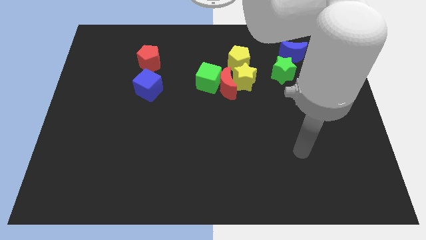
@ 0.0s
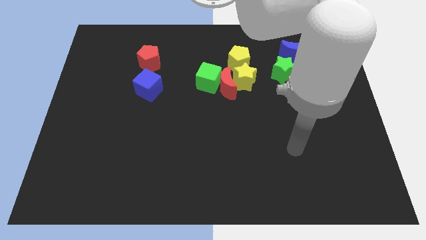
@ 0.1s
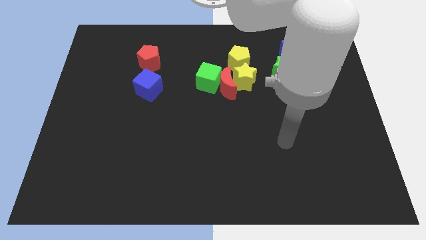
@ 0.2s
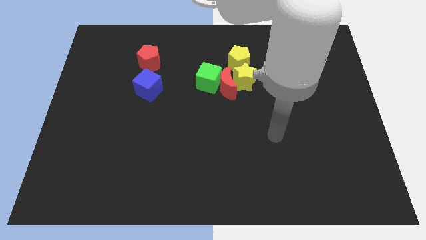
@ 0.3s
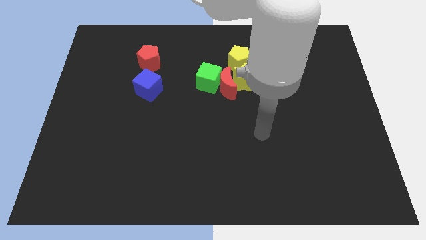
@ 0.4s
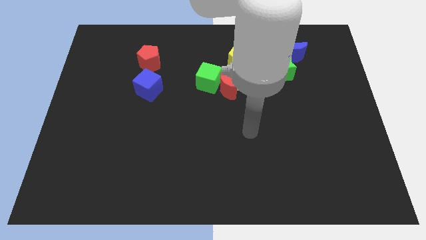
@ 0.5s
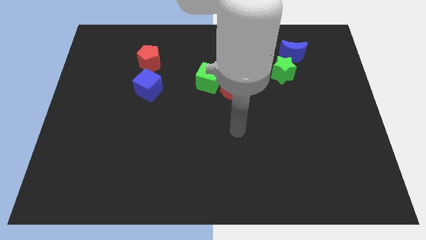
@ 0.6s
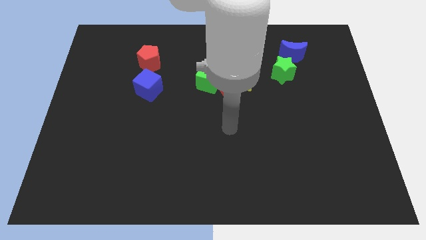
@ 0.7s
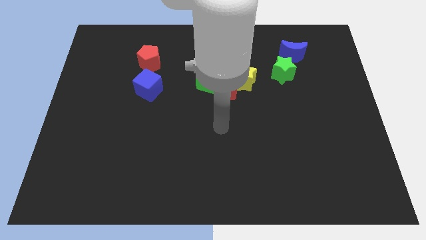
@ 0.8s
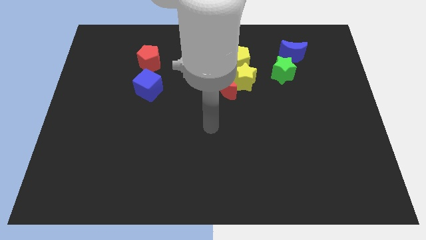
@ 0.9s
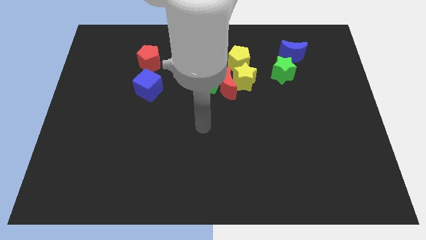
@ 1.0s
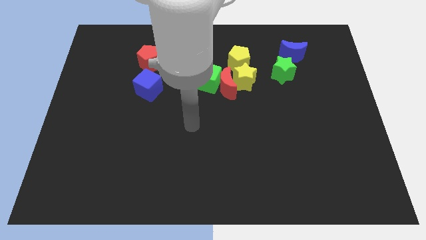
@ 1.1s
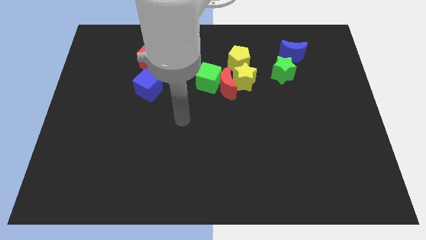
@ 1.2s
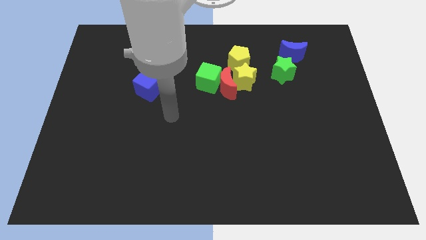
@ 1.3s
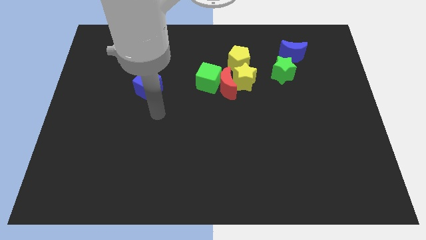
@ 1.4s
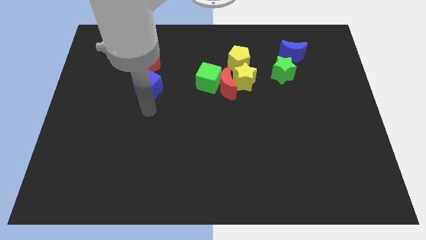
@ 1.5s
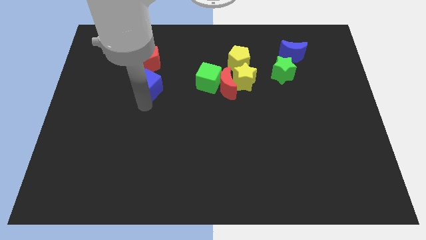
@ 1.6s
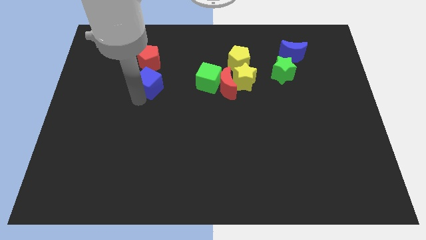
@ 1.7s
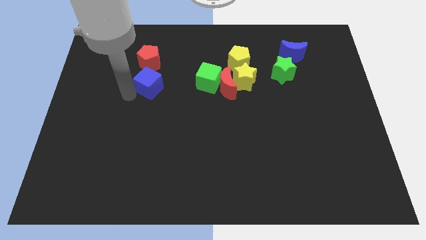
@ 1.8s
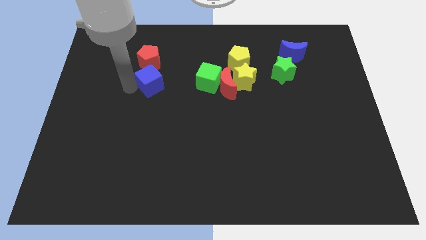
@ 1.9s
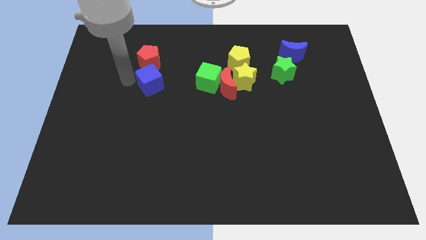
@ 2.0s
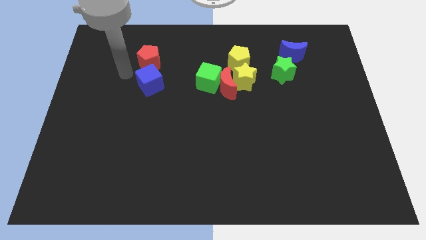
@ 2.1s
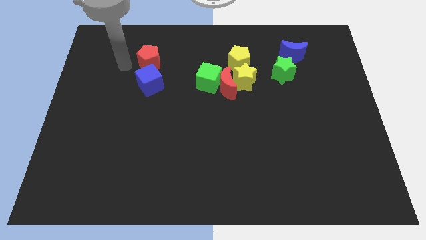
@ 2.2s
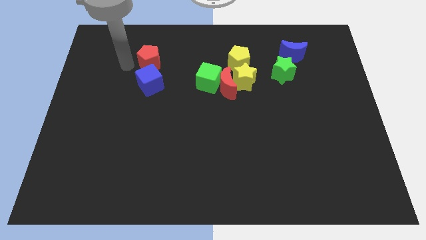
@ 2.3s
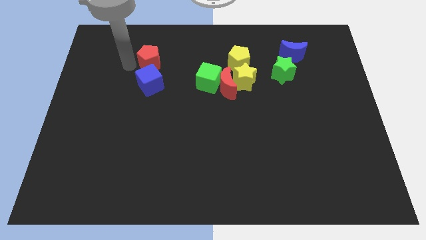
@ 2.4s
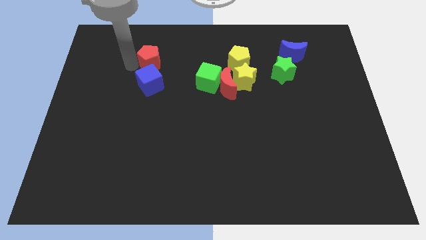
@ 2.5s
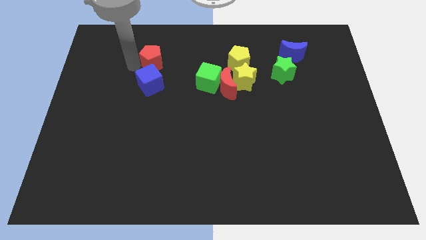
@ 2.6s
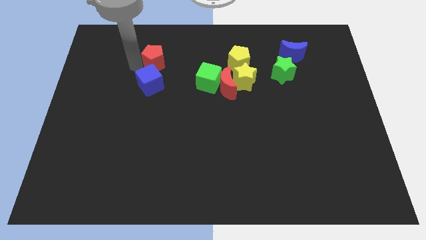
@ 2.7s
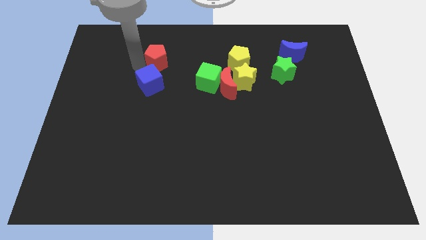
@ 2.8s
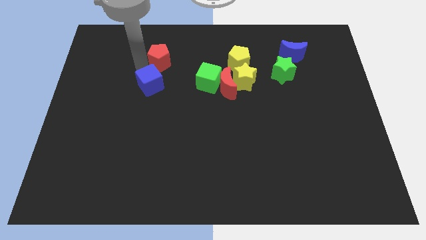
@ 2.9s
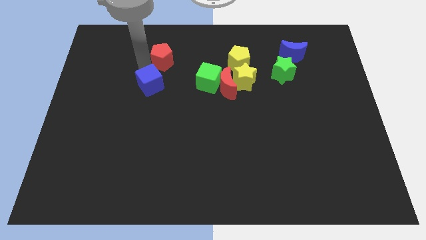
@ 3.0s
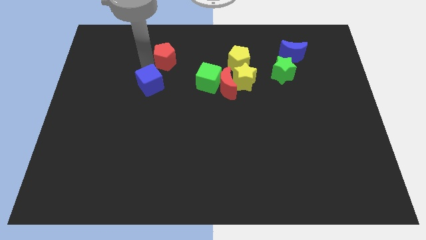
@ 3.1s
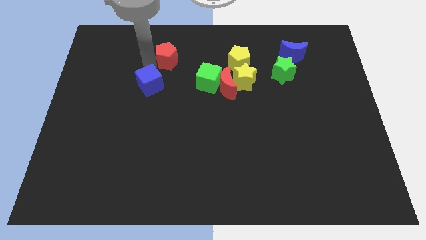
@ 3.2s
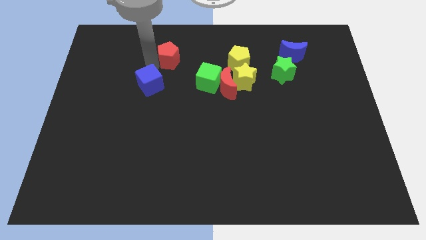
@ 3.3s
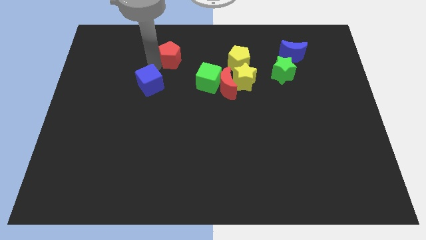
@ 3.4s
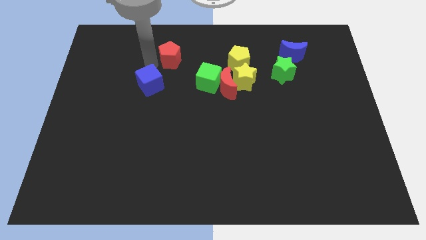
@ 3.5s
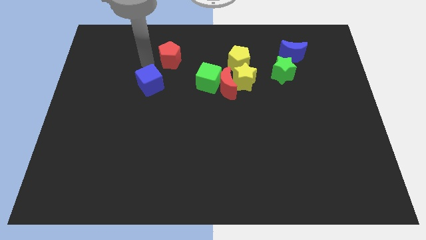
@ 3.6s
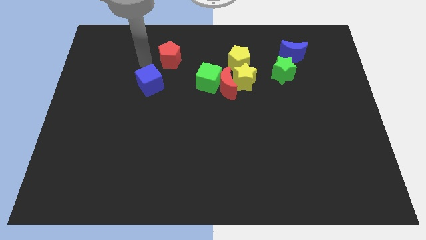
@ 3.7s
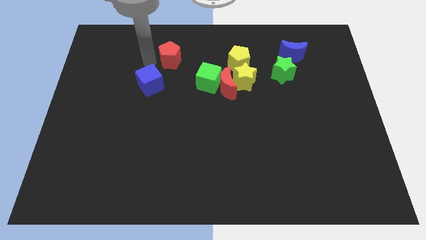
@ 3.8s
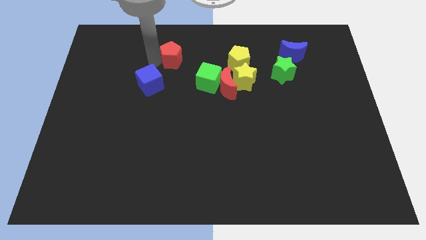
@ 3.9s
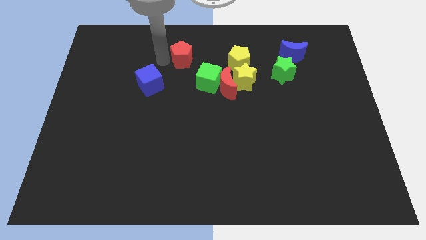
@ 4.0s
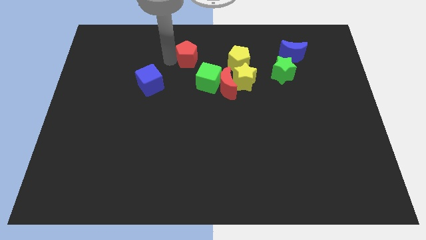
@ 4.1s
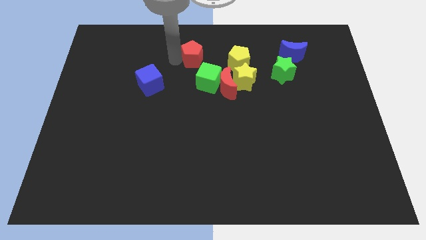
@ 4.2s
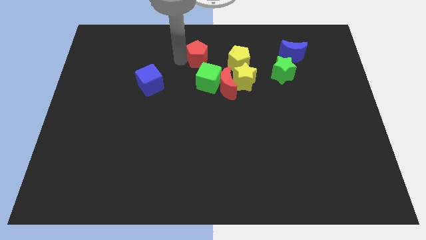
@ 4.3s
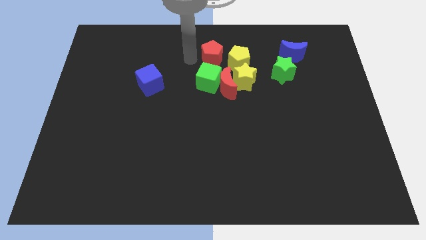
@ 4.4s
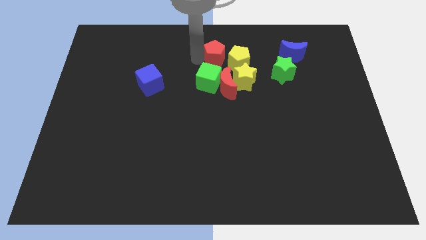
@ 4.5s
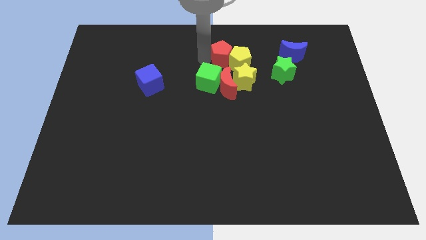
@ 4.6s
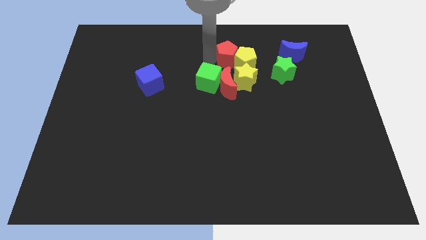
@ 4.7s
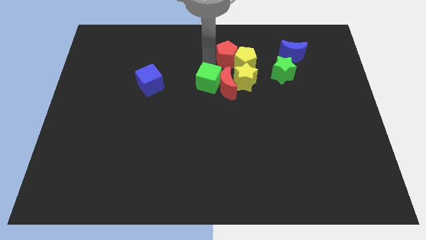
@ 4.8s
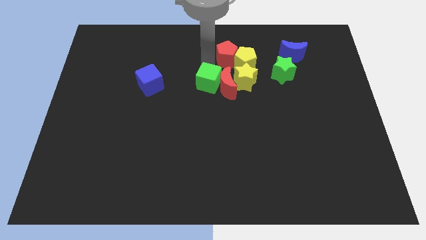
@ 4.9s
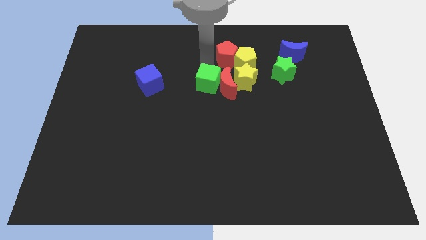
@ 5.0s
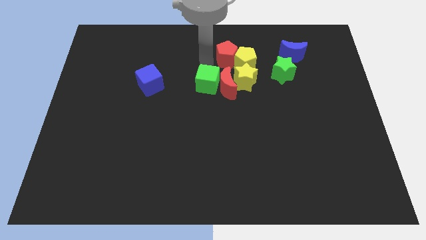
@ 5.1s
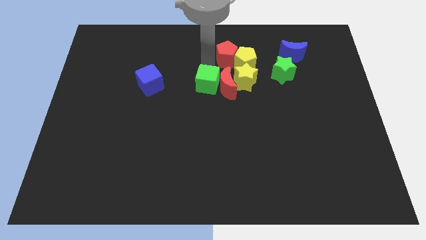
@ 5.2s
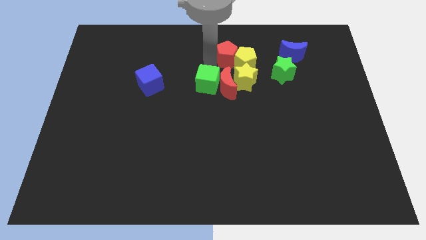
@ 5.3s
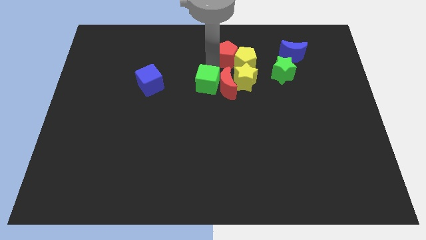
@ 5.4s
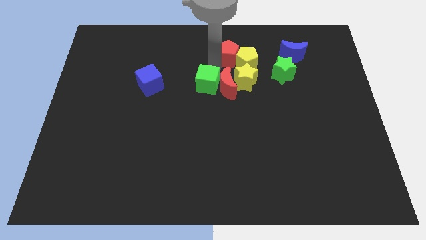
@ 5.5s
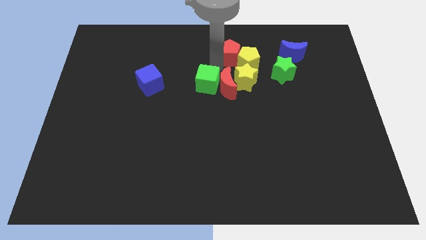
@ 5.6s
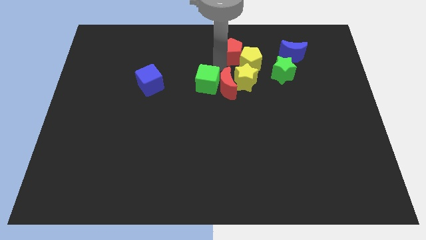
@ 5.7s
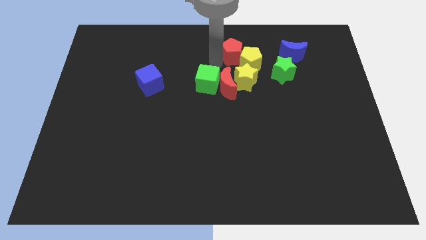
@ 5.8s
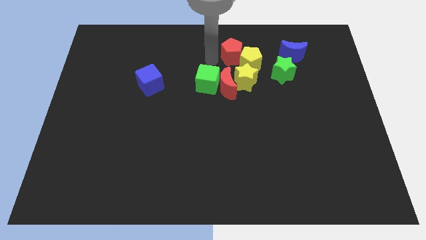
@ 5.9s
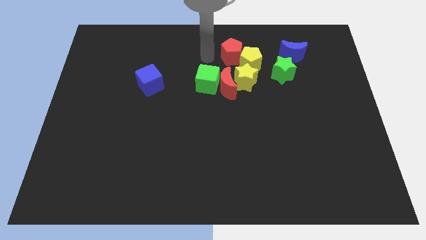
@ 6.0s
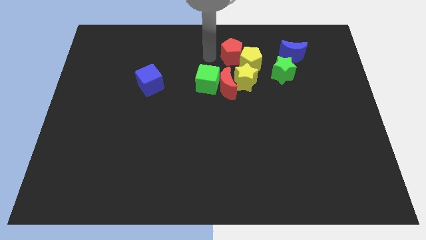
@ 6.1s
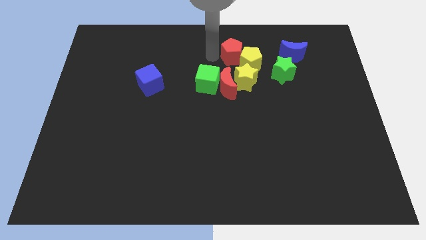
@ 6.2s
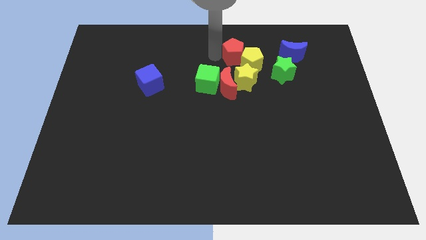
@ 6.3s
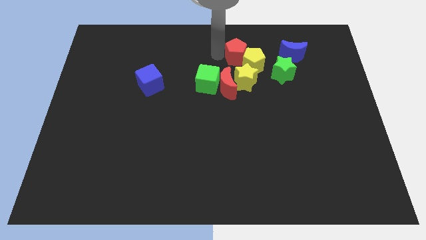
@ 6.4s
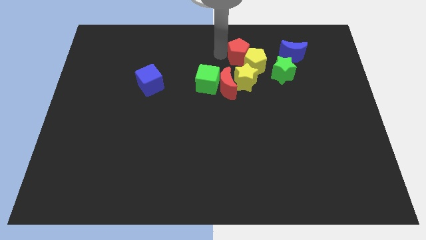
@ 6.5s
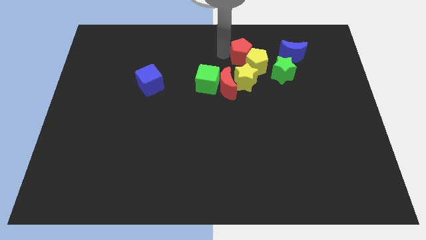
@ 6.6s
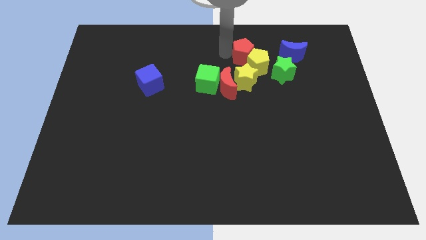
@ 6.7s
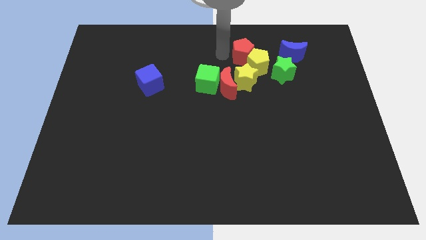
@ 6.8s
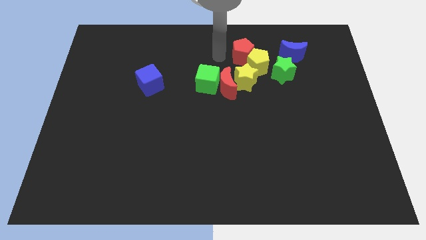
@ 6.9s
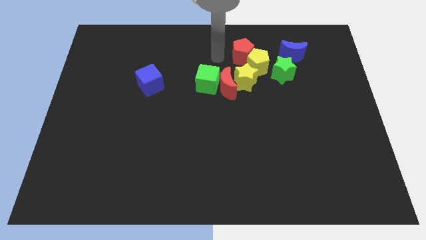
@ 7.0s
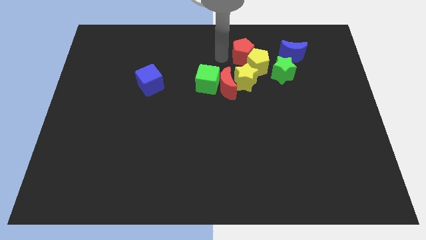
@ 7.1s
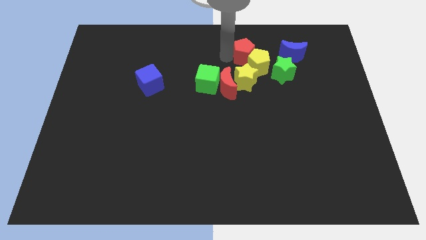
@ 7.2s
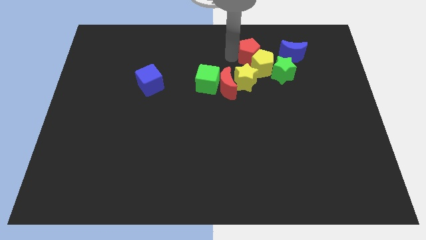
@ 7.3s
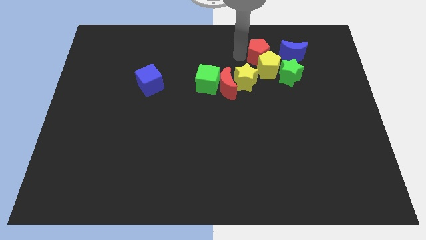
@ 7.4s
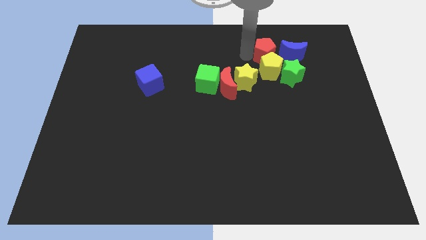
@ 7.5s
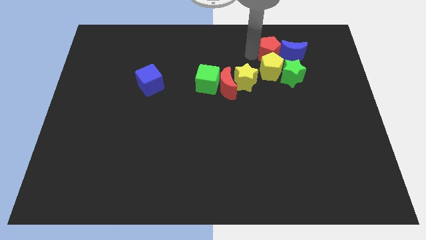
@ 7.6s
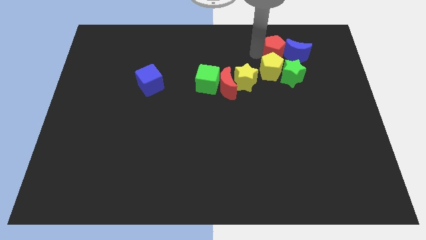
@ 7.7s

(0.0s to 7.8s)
push the red pentagon close to the blue moon
